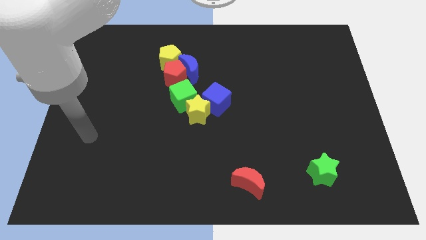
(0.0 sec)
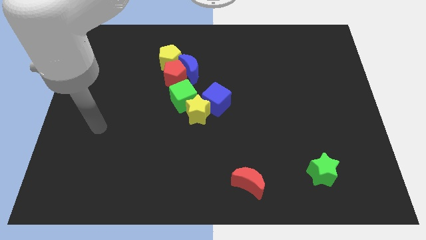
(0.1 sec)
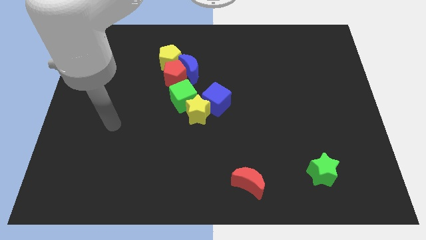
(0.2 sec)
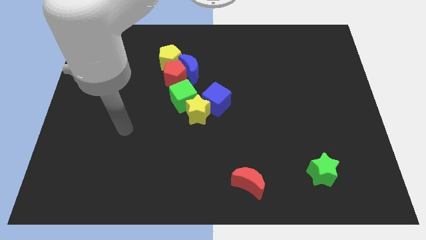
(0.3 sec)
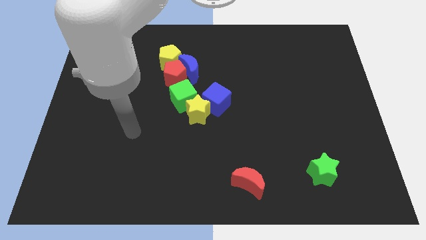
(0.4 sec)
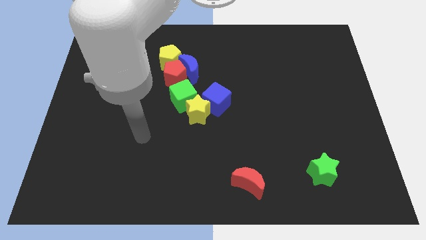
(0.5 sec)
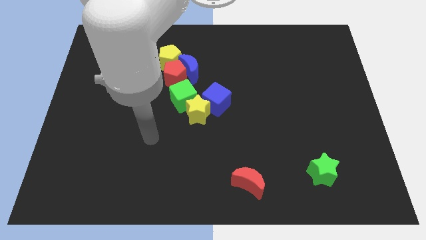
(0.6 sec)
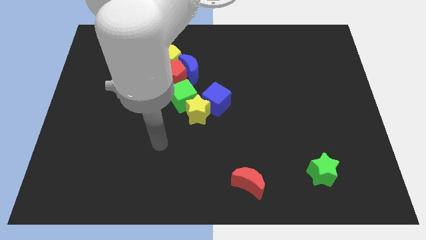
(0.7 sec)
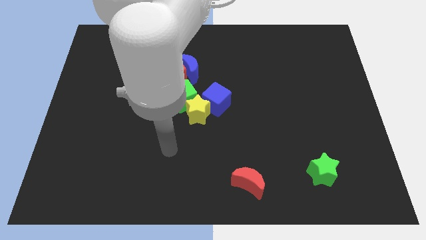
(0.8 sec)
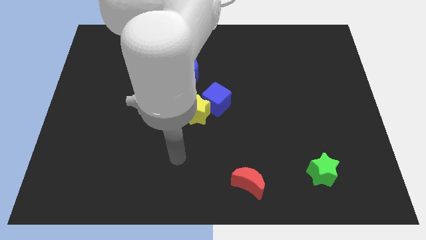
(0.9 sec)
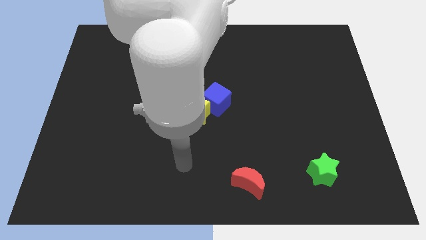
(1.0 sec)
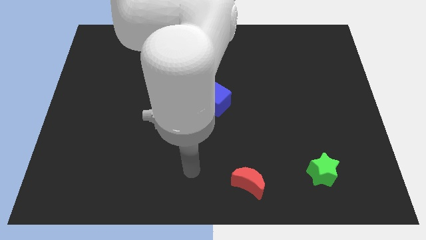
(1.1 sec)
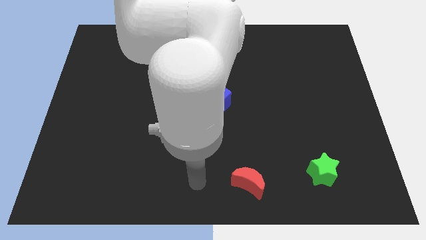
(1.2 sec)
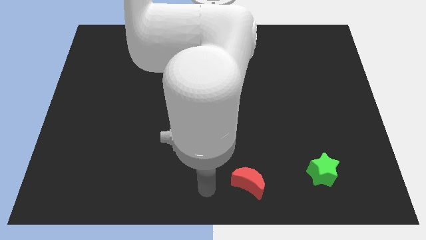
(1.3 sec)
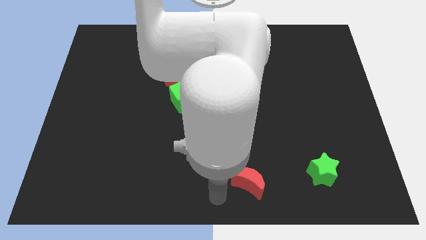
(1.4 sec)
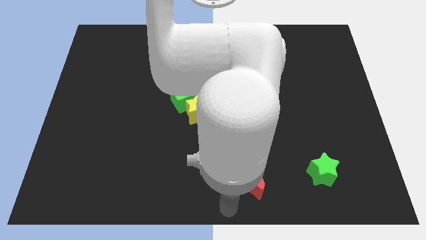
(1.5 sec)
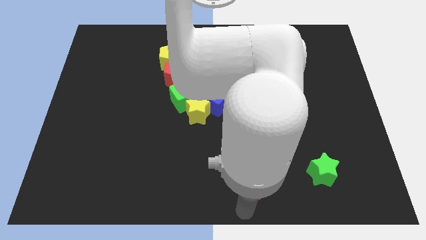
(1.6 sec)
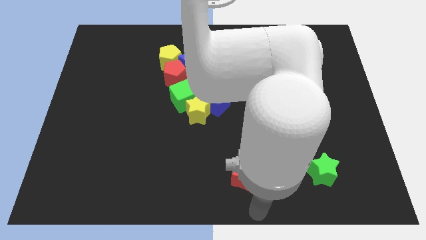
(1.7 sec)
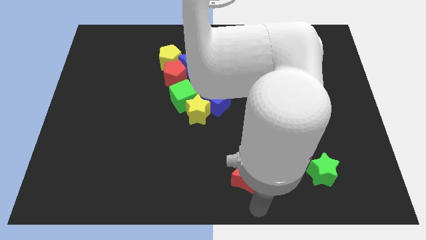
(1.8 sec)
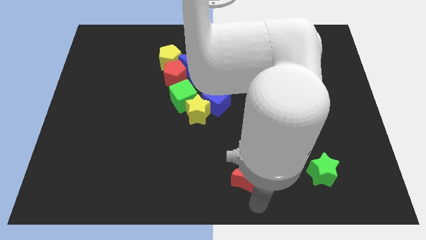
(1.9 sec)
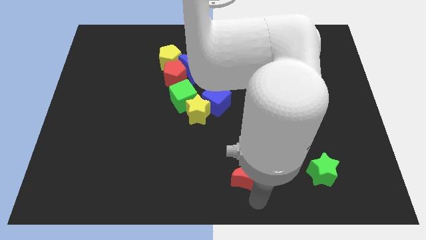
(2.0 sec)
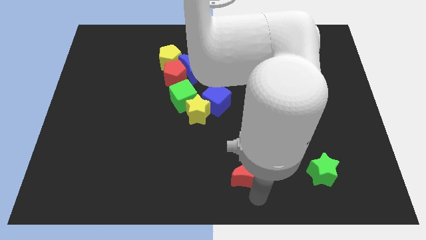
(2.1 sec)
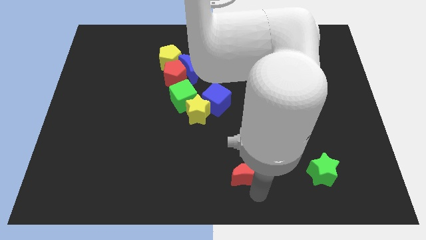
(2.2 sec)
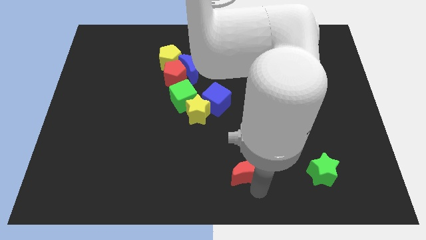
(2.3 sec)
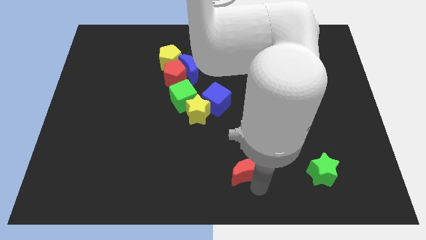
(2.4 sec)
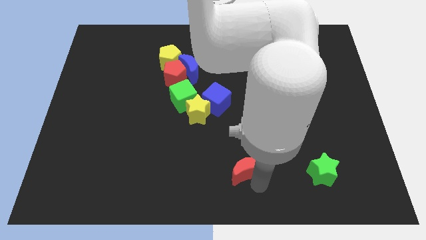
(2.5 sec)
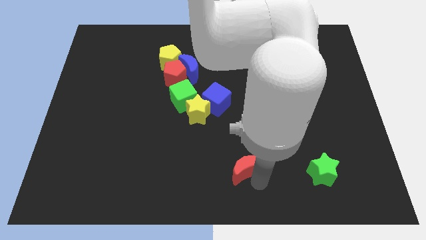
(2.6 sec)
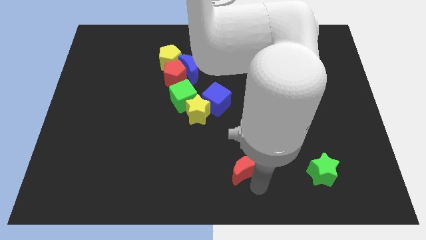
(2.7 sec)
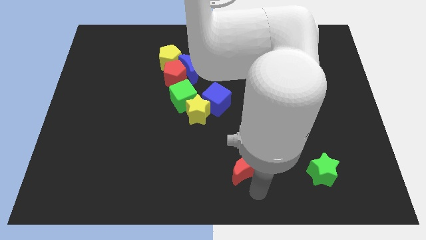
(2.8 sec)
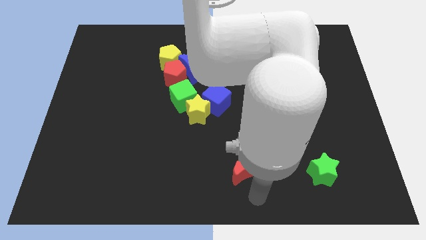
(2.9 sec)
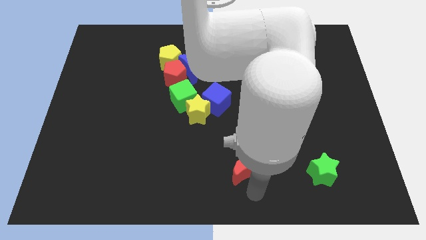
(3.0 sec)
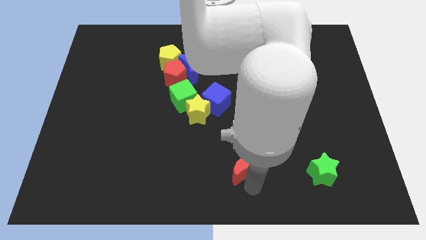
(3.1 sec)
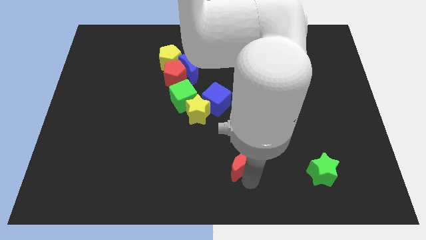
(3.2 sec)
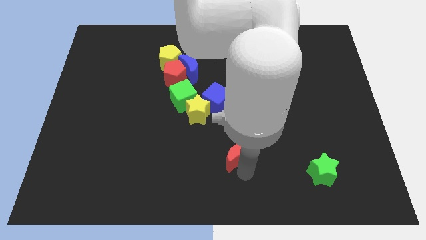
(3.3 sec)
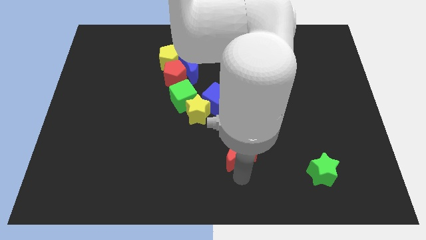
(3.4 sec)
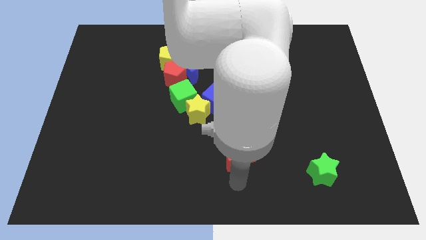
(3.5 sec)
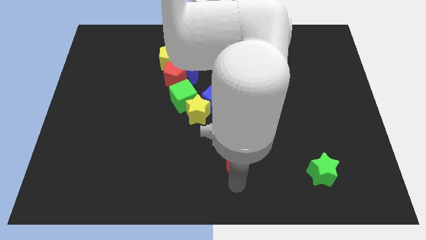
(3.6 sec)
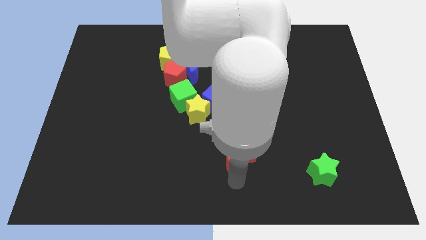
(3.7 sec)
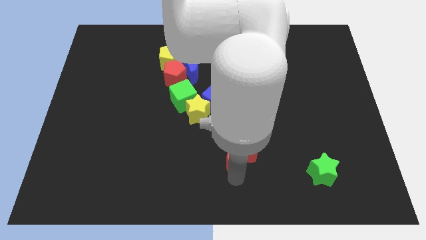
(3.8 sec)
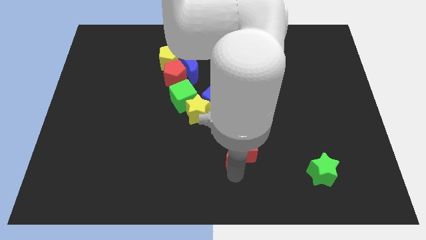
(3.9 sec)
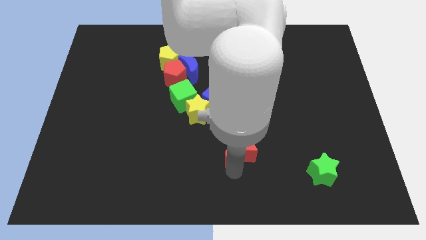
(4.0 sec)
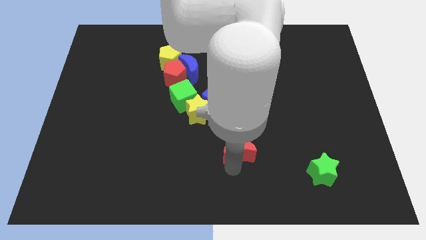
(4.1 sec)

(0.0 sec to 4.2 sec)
slightly slide the red moon up

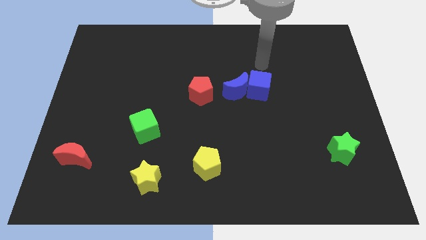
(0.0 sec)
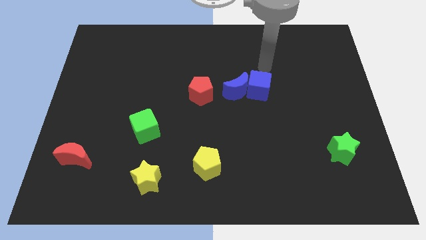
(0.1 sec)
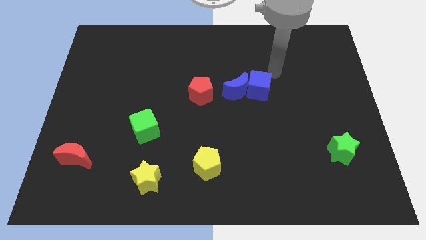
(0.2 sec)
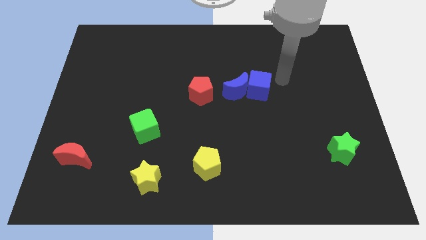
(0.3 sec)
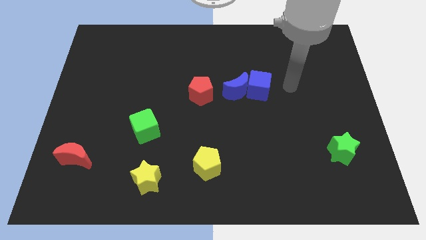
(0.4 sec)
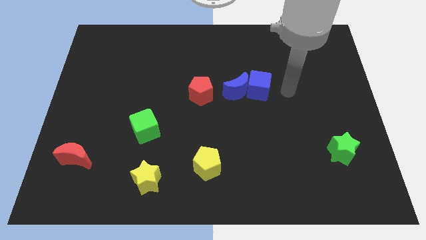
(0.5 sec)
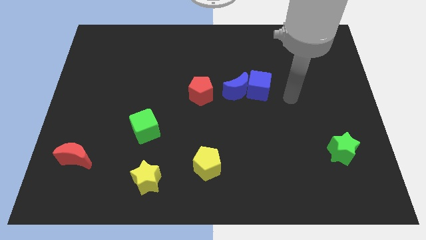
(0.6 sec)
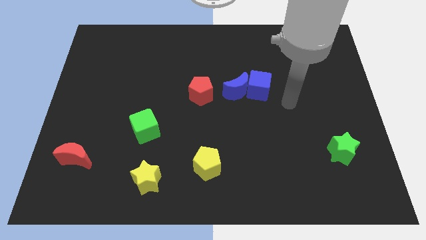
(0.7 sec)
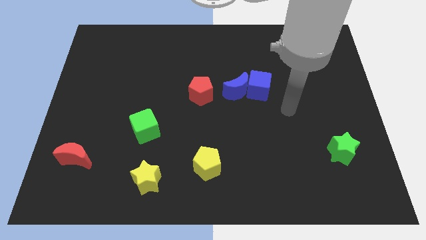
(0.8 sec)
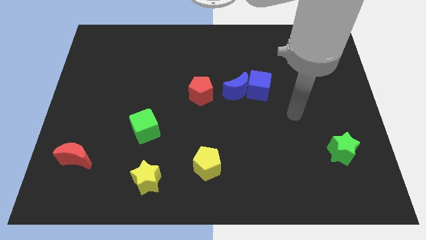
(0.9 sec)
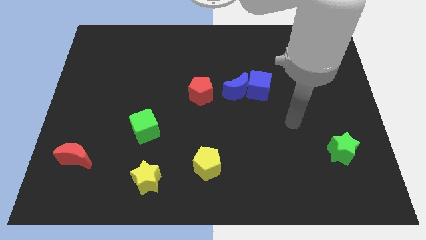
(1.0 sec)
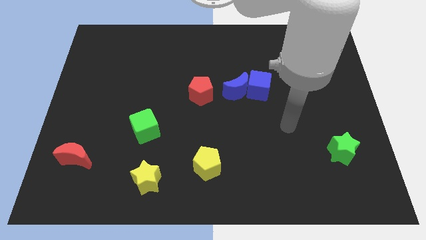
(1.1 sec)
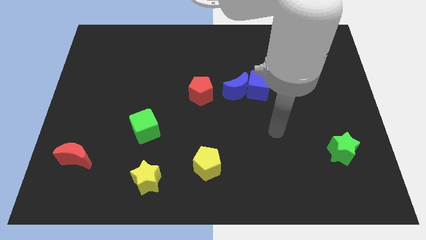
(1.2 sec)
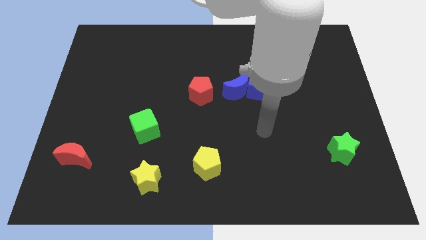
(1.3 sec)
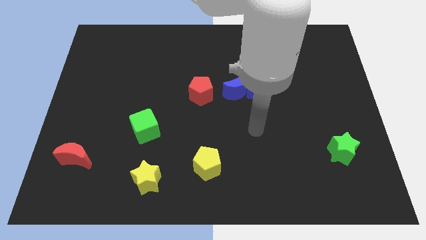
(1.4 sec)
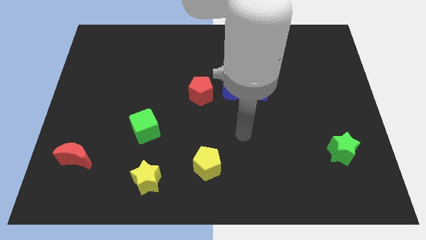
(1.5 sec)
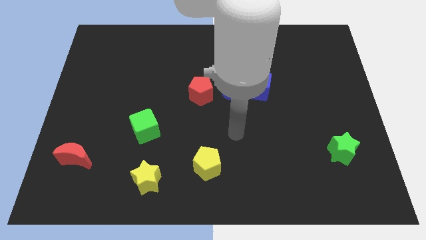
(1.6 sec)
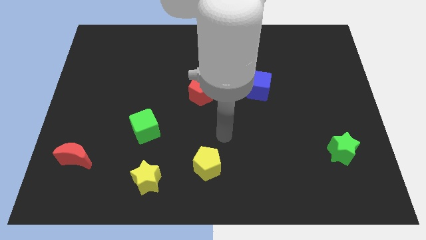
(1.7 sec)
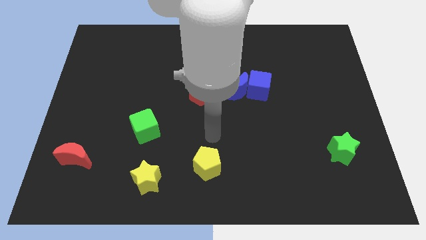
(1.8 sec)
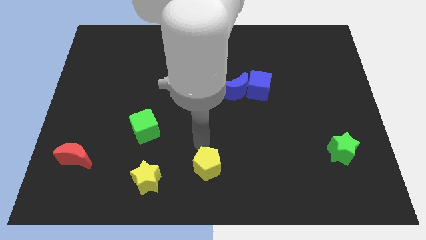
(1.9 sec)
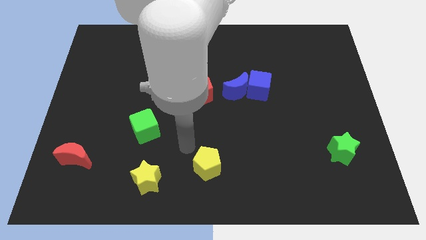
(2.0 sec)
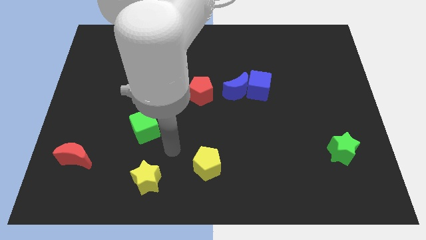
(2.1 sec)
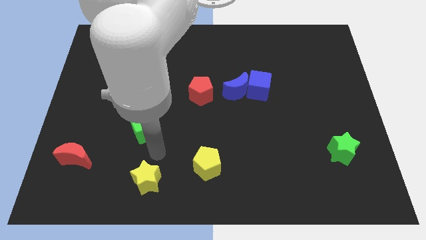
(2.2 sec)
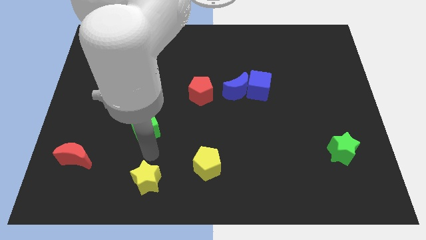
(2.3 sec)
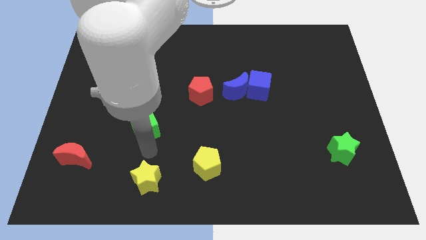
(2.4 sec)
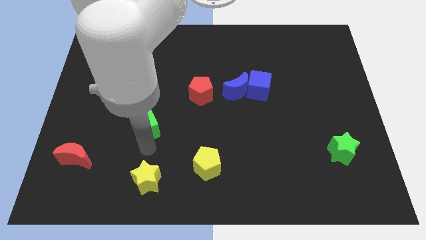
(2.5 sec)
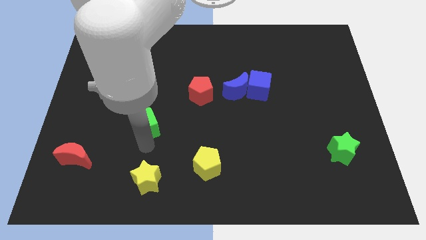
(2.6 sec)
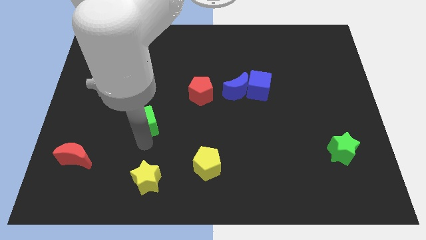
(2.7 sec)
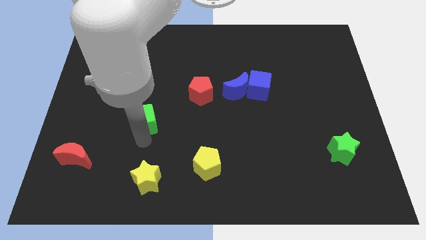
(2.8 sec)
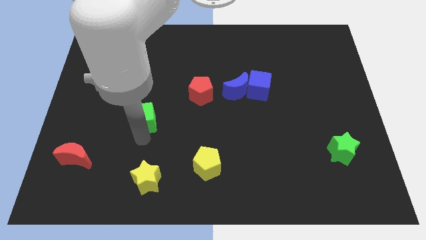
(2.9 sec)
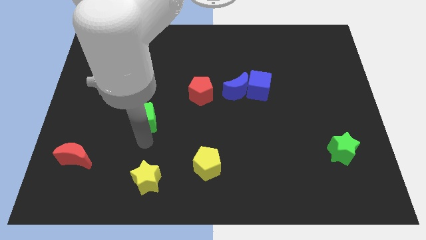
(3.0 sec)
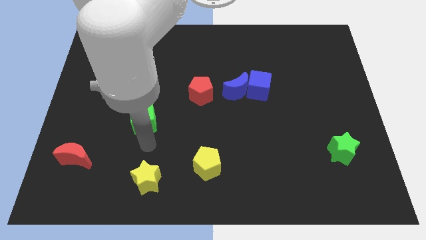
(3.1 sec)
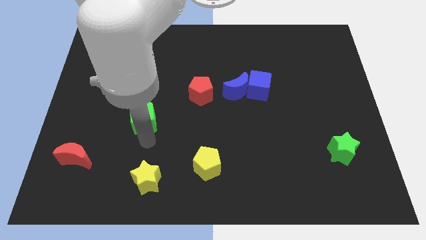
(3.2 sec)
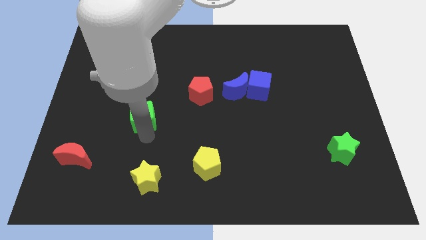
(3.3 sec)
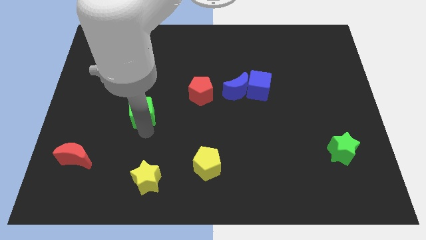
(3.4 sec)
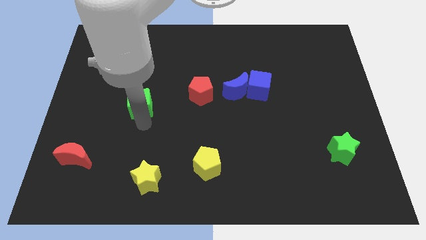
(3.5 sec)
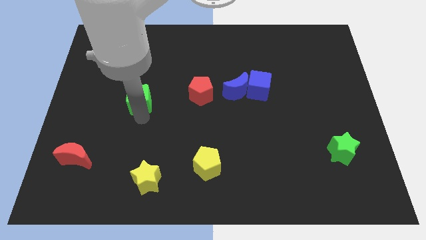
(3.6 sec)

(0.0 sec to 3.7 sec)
push the green cube a little up
